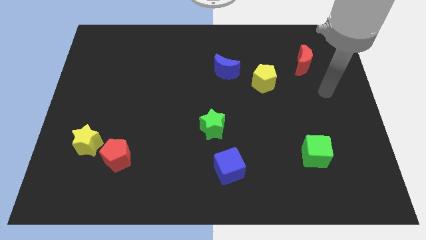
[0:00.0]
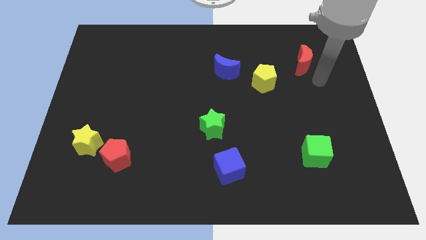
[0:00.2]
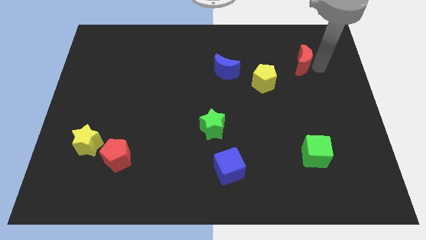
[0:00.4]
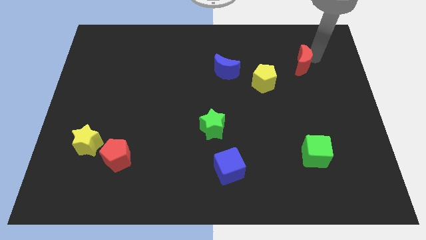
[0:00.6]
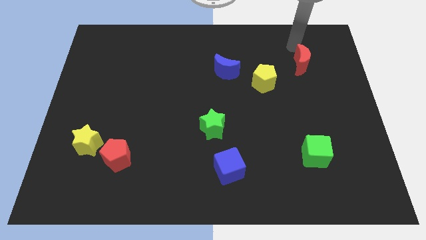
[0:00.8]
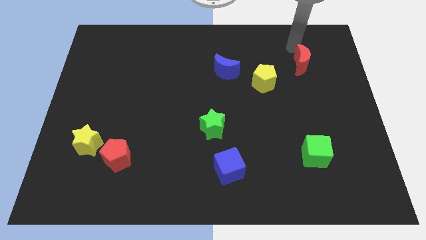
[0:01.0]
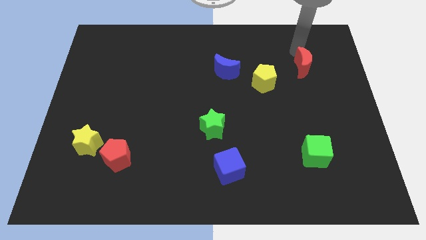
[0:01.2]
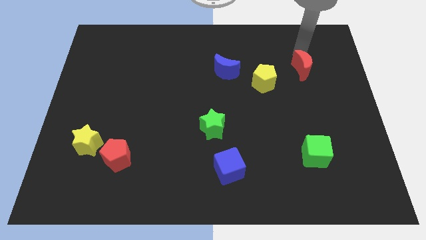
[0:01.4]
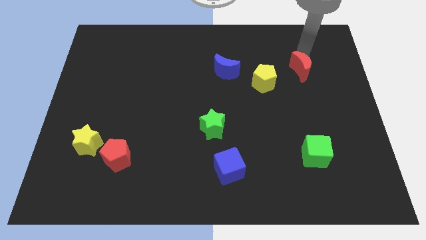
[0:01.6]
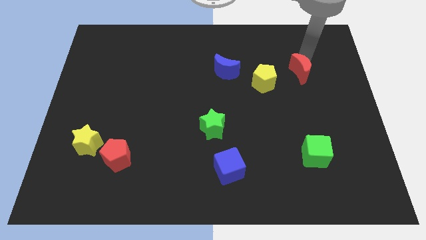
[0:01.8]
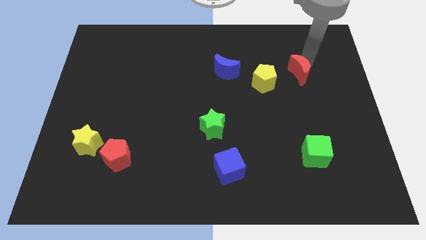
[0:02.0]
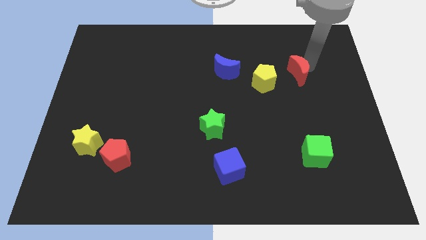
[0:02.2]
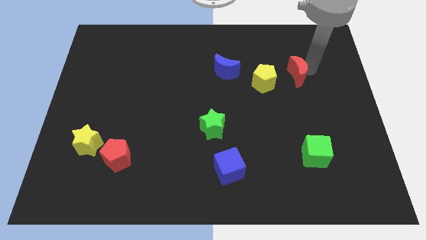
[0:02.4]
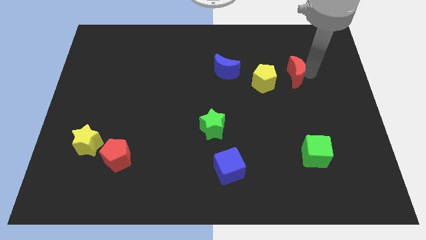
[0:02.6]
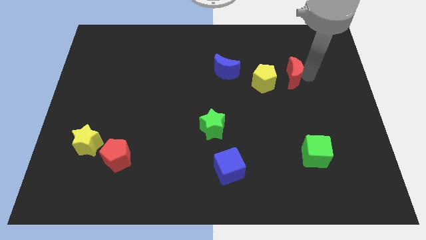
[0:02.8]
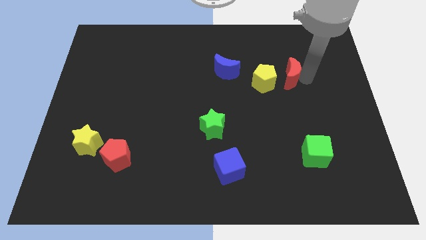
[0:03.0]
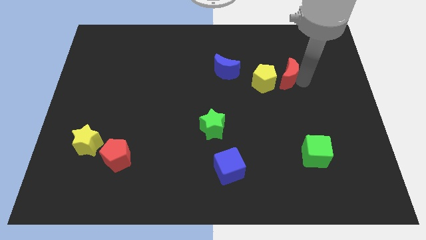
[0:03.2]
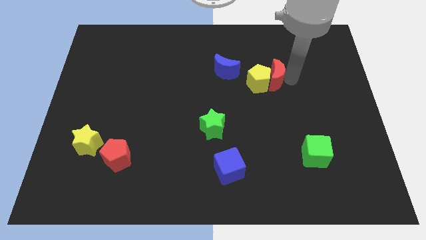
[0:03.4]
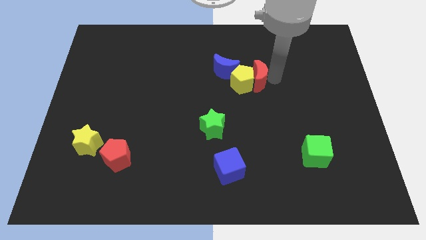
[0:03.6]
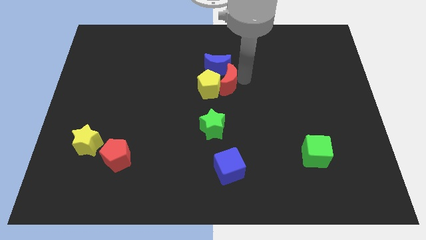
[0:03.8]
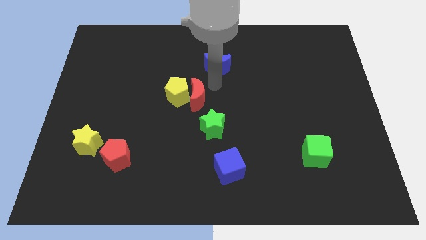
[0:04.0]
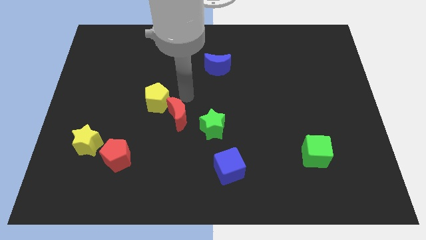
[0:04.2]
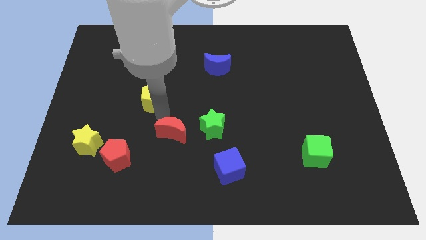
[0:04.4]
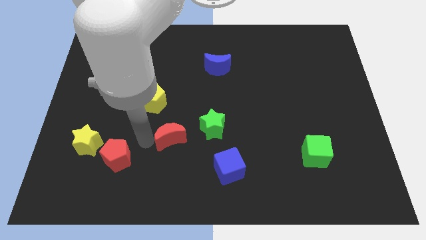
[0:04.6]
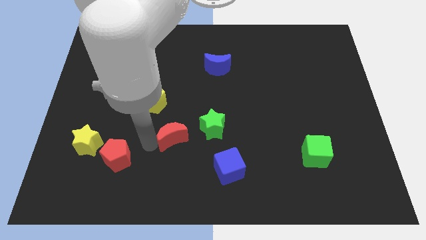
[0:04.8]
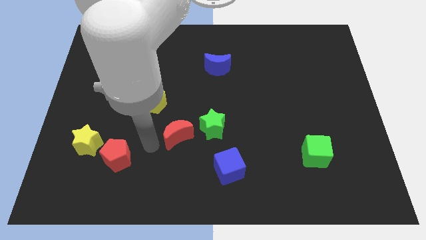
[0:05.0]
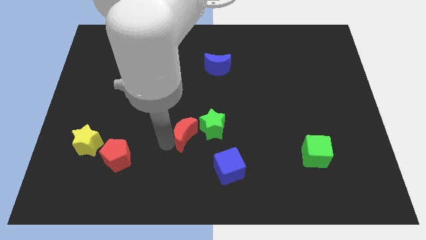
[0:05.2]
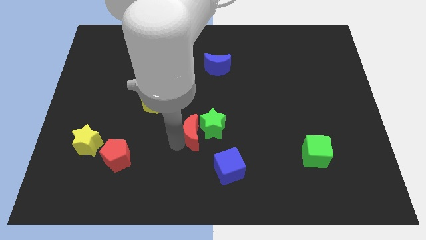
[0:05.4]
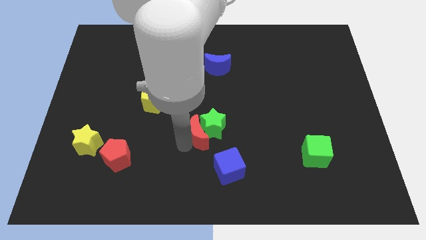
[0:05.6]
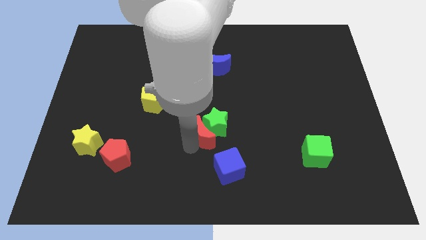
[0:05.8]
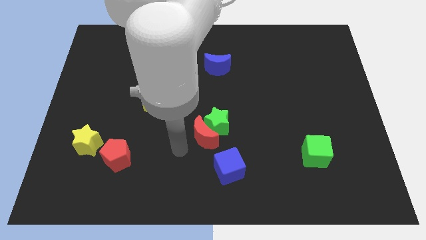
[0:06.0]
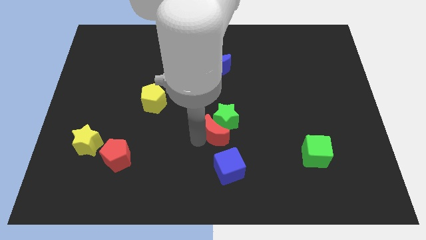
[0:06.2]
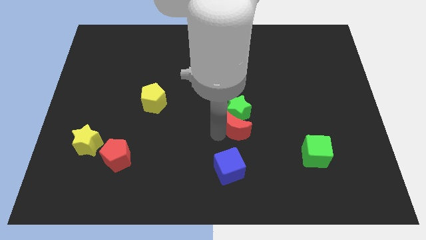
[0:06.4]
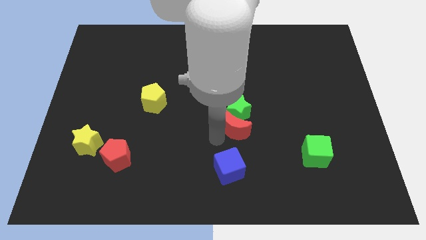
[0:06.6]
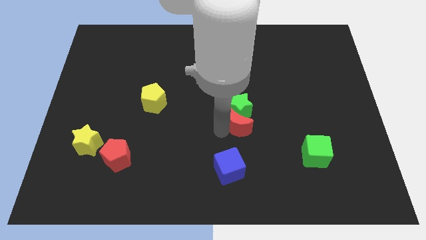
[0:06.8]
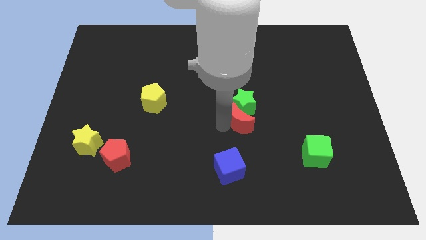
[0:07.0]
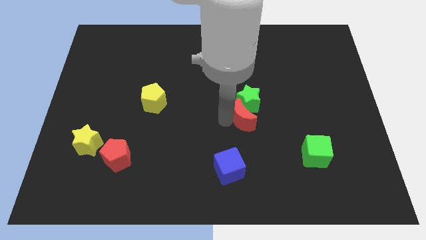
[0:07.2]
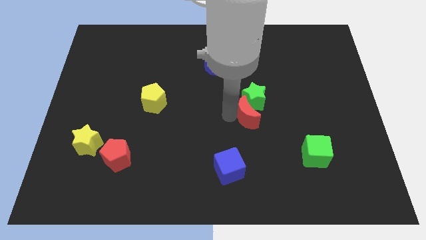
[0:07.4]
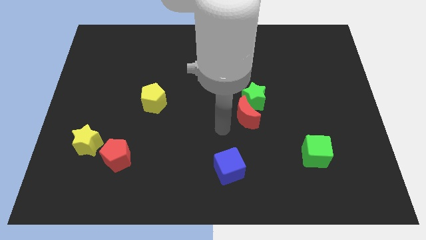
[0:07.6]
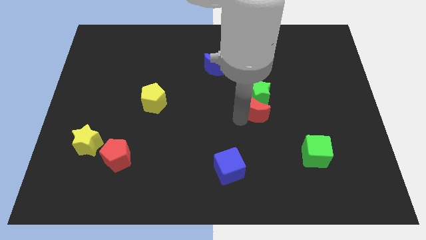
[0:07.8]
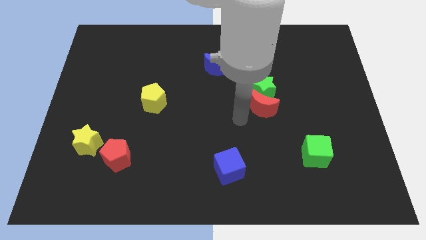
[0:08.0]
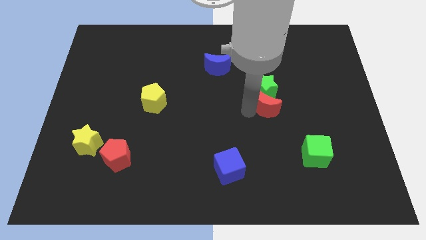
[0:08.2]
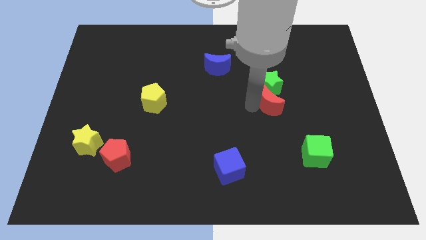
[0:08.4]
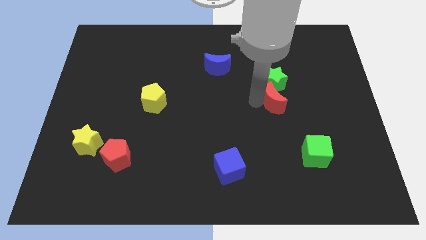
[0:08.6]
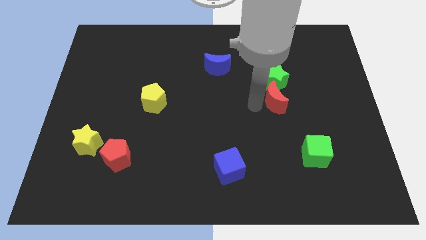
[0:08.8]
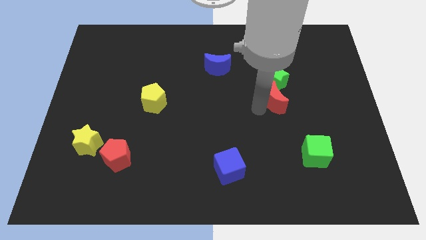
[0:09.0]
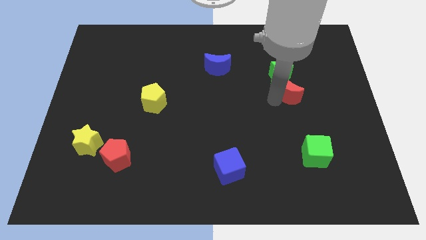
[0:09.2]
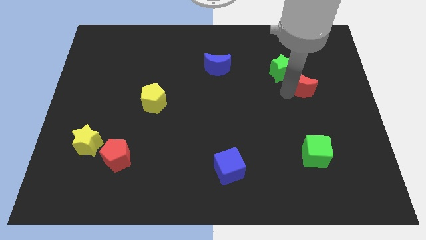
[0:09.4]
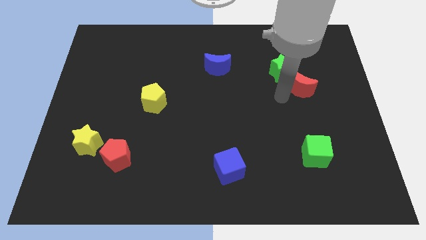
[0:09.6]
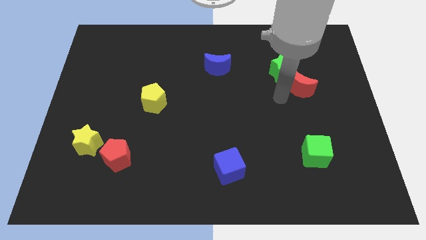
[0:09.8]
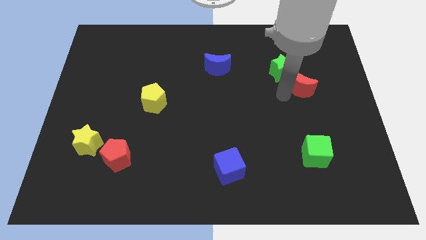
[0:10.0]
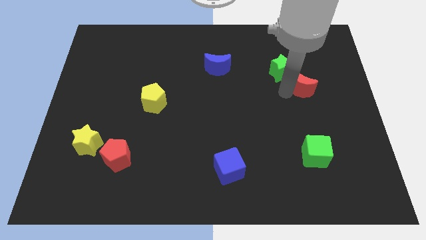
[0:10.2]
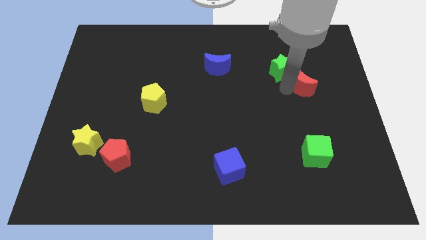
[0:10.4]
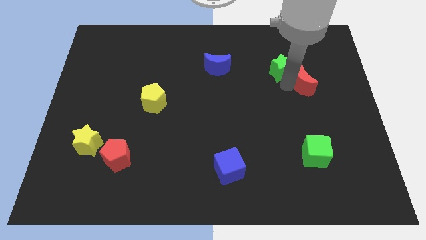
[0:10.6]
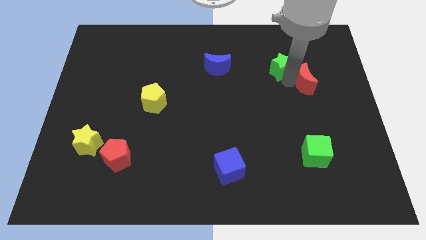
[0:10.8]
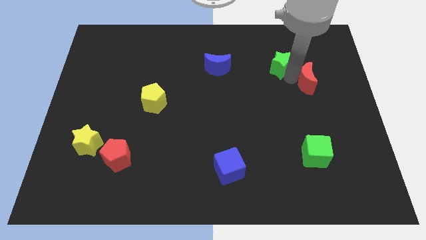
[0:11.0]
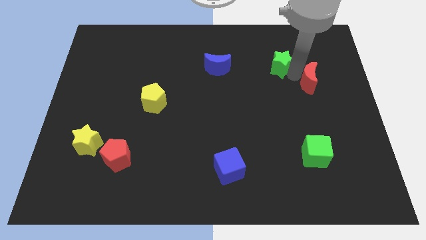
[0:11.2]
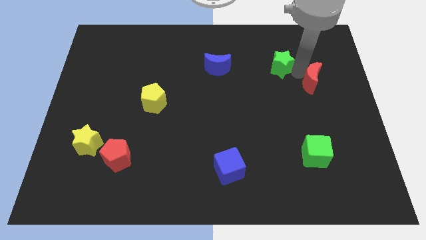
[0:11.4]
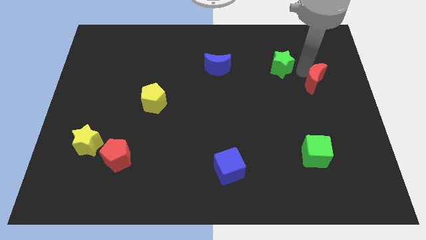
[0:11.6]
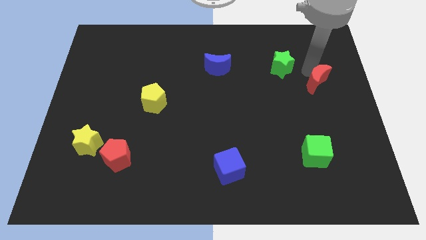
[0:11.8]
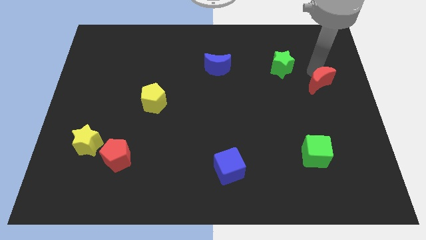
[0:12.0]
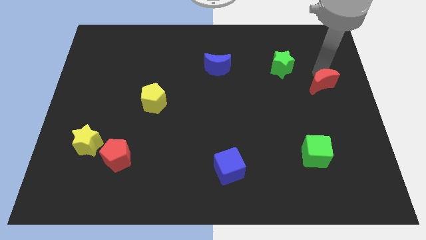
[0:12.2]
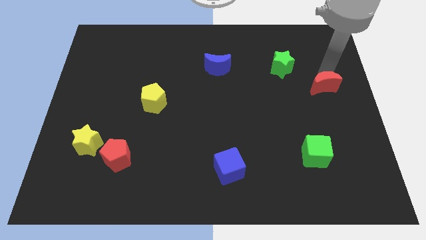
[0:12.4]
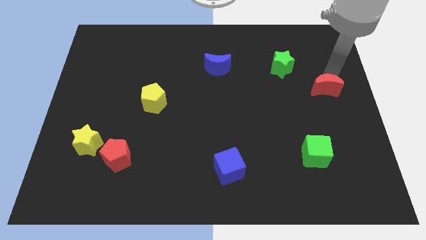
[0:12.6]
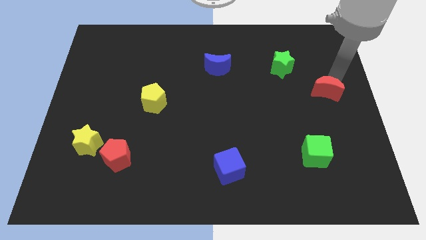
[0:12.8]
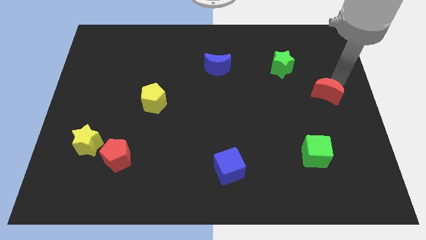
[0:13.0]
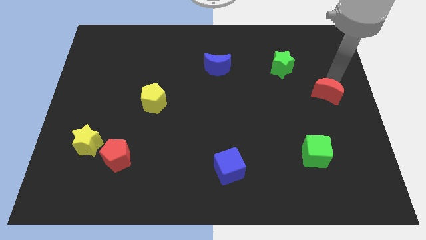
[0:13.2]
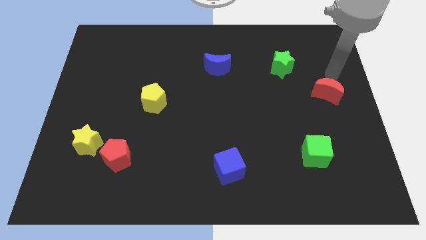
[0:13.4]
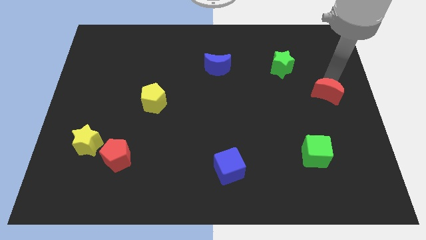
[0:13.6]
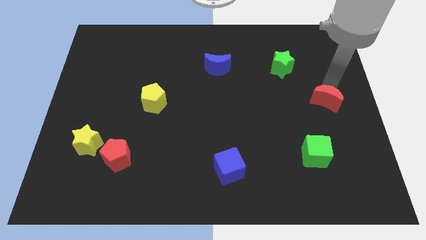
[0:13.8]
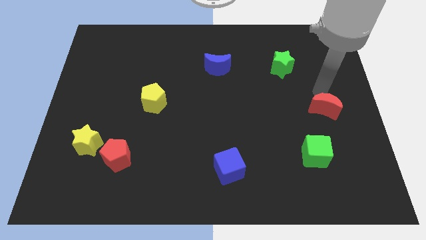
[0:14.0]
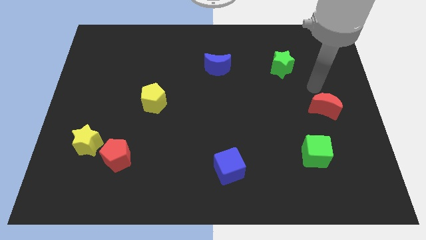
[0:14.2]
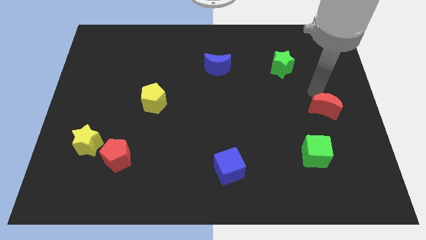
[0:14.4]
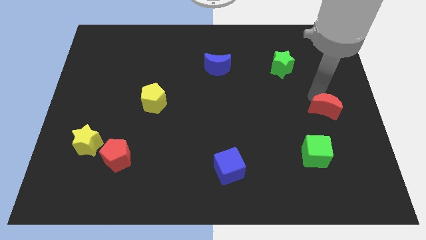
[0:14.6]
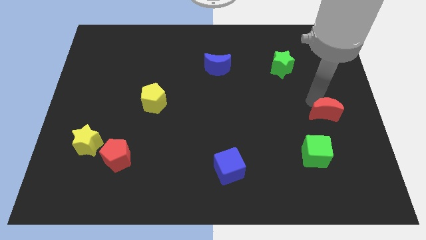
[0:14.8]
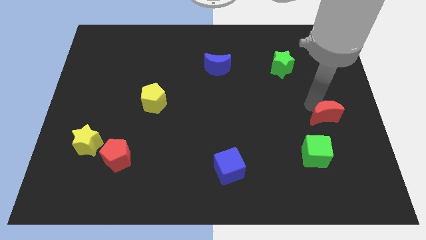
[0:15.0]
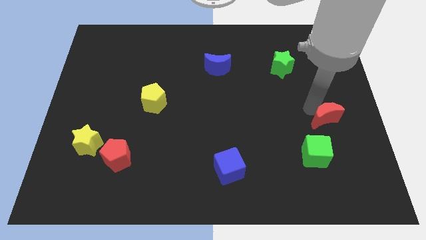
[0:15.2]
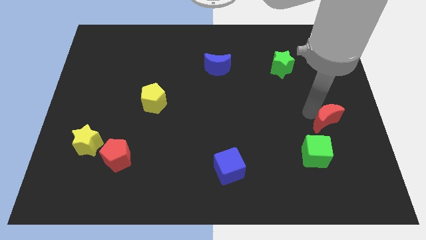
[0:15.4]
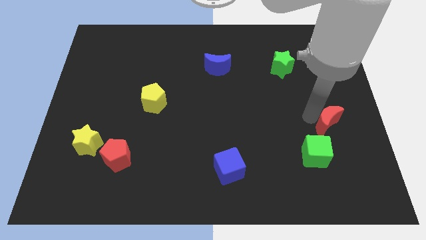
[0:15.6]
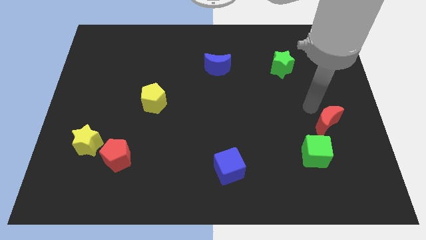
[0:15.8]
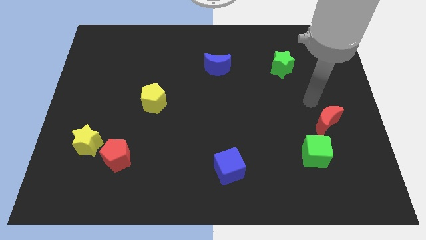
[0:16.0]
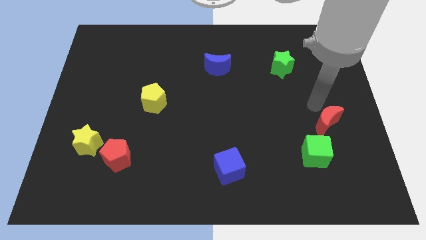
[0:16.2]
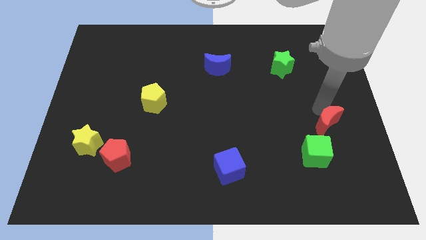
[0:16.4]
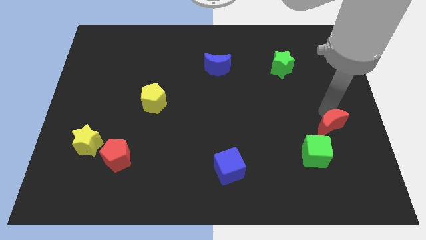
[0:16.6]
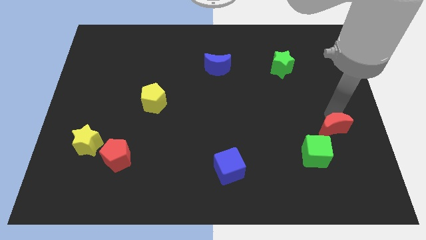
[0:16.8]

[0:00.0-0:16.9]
move the red moon downwards
